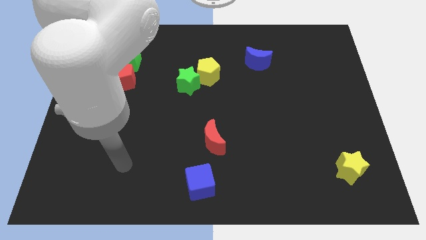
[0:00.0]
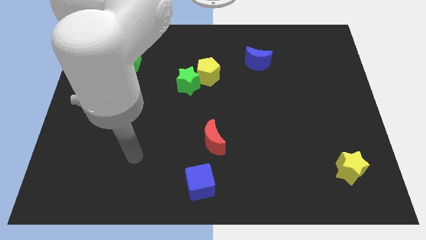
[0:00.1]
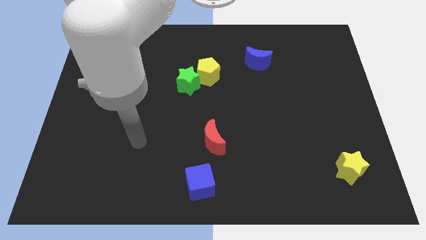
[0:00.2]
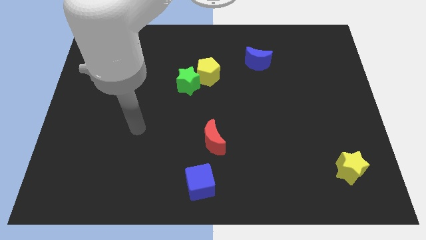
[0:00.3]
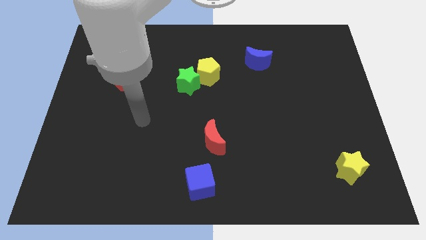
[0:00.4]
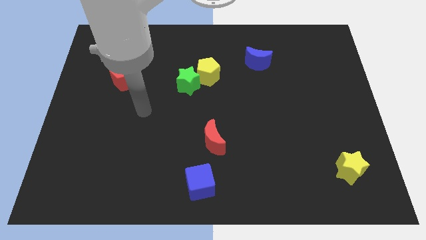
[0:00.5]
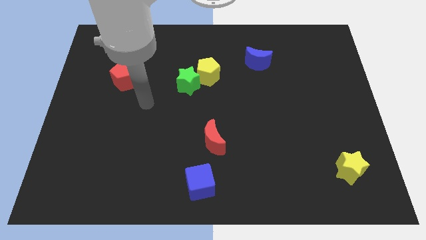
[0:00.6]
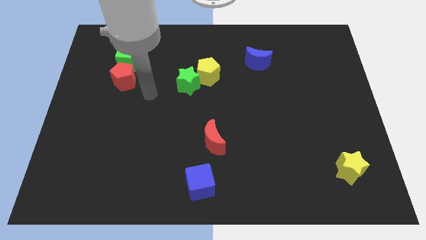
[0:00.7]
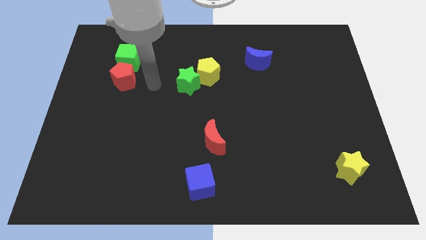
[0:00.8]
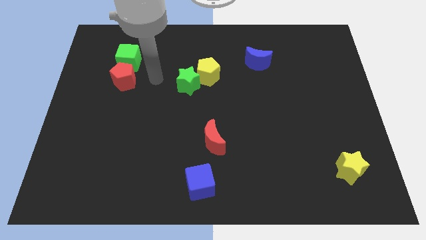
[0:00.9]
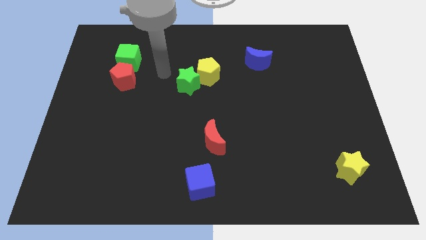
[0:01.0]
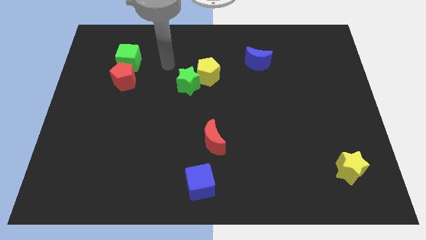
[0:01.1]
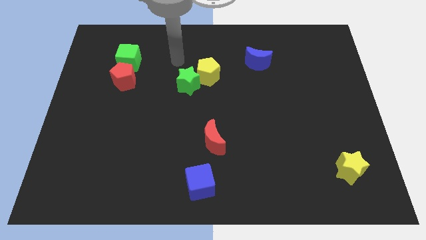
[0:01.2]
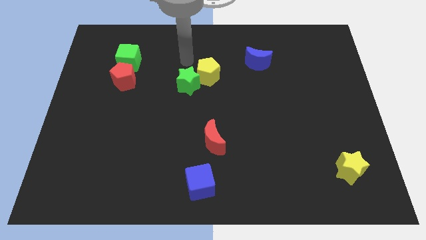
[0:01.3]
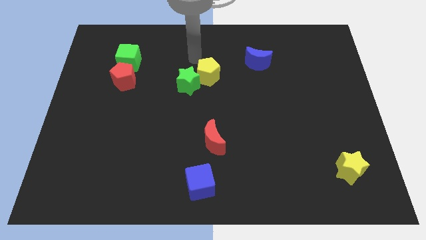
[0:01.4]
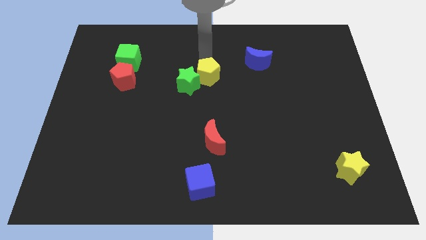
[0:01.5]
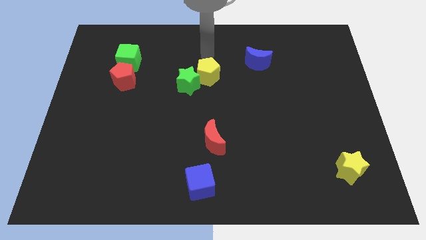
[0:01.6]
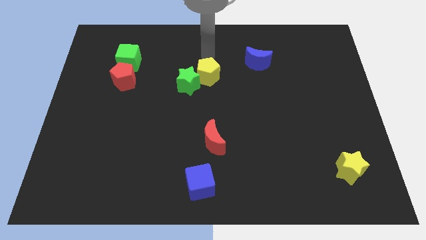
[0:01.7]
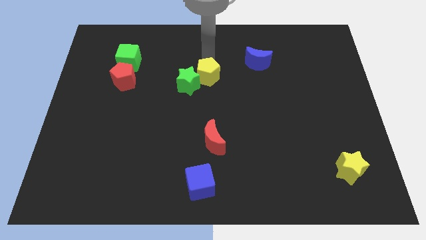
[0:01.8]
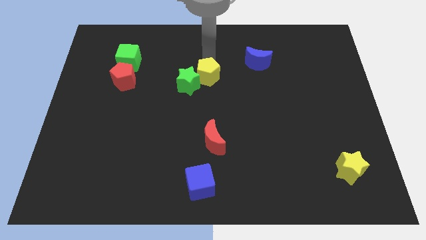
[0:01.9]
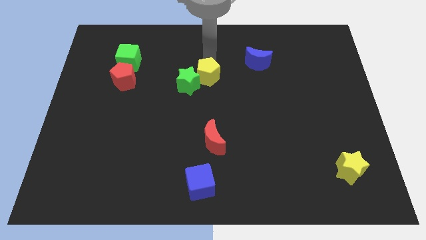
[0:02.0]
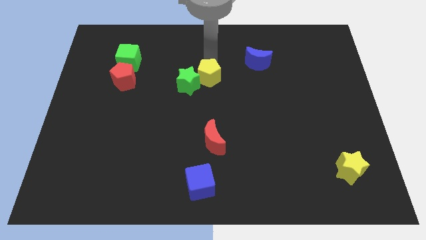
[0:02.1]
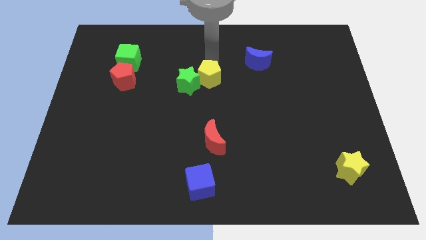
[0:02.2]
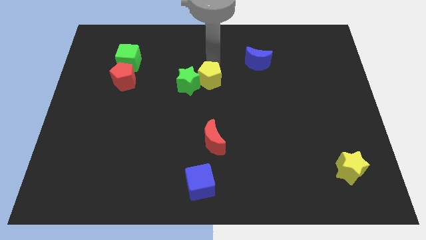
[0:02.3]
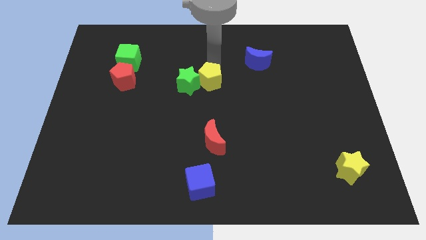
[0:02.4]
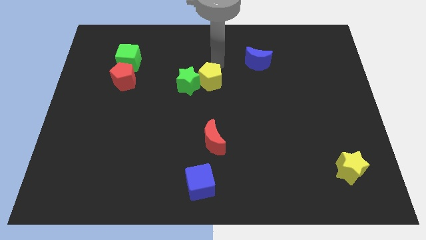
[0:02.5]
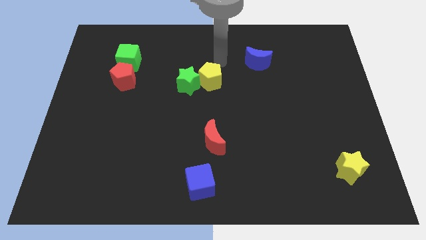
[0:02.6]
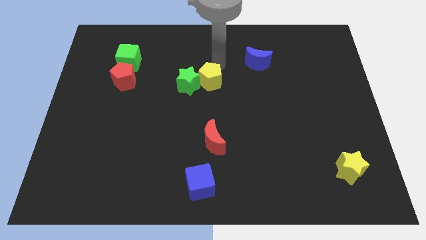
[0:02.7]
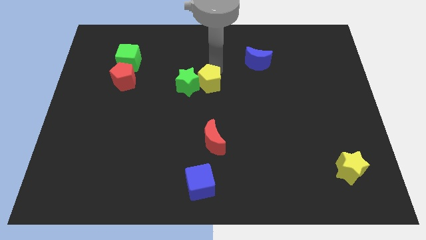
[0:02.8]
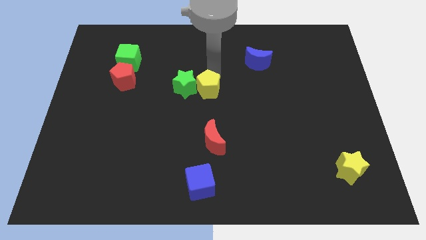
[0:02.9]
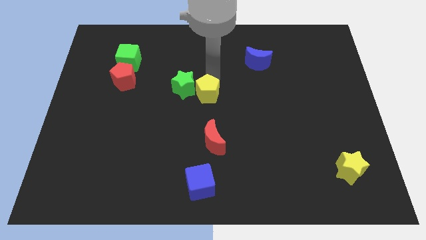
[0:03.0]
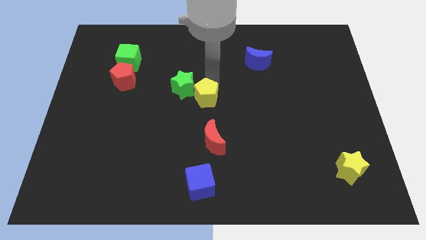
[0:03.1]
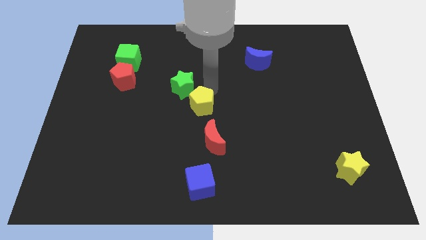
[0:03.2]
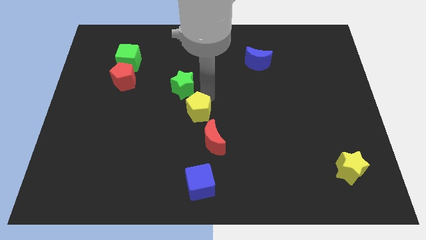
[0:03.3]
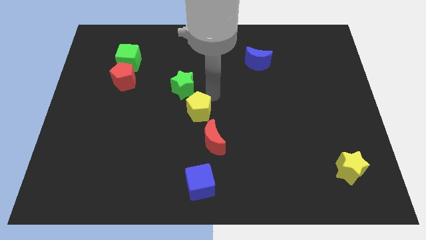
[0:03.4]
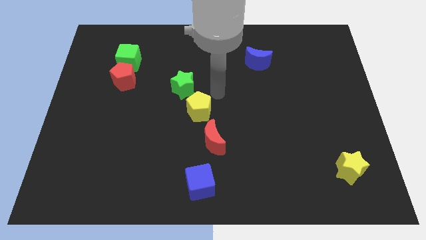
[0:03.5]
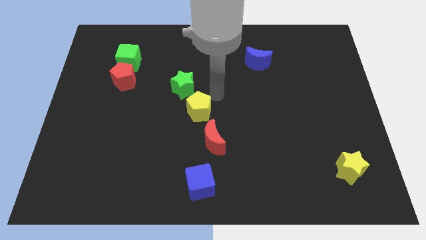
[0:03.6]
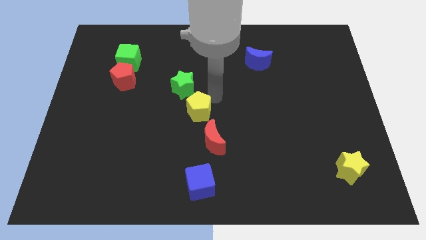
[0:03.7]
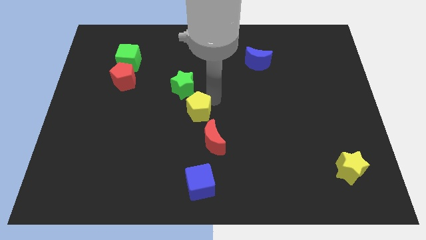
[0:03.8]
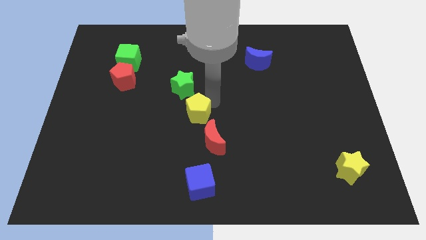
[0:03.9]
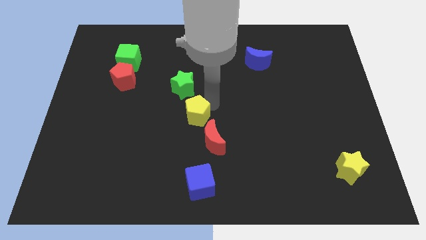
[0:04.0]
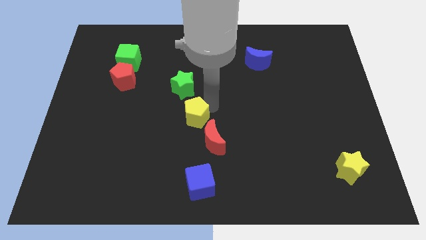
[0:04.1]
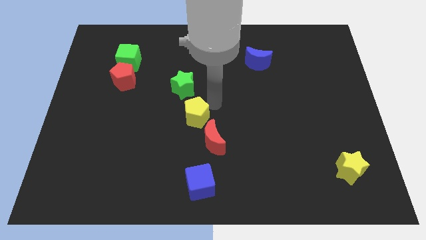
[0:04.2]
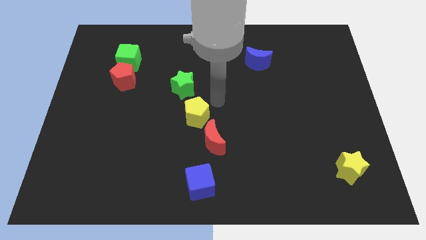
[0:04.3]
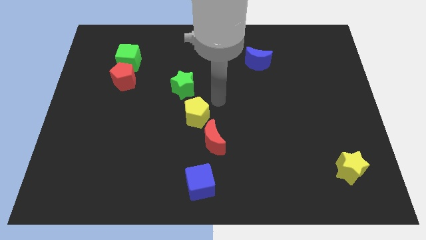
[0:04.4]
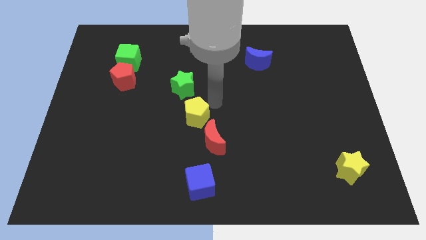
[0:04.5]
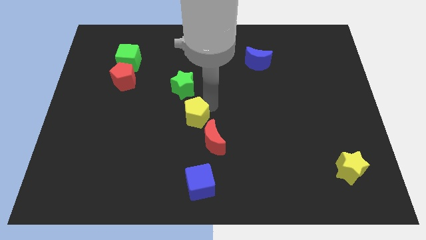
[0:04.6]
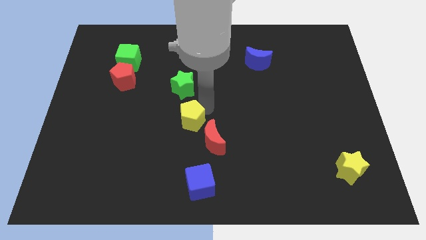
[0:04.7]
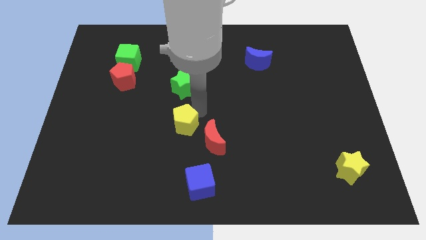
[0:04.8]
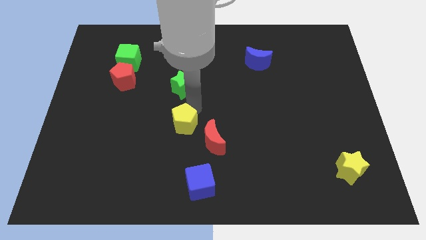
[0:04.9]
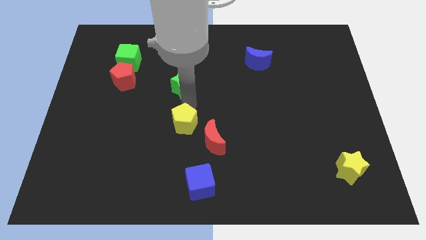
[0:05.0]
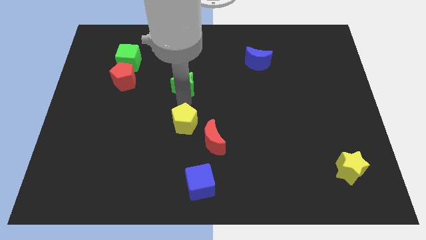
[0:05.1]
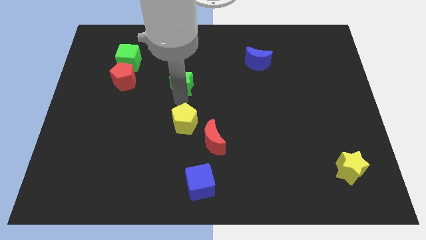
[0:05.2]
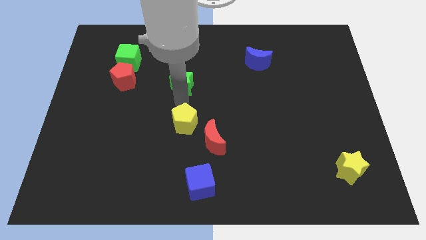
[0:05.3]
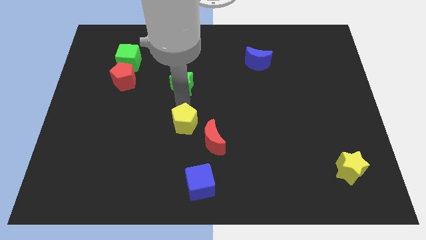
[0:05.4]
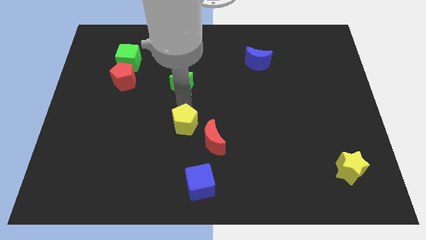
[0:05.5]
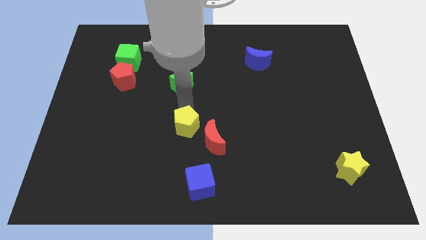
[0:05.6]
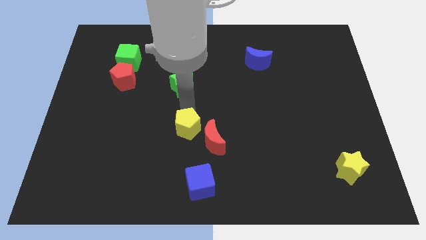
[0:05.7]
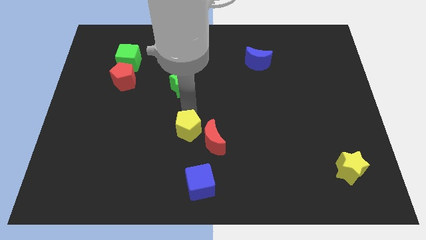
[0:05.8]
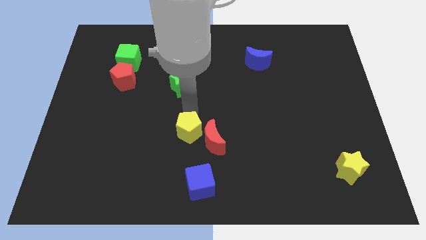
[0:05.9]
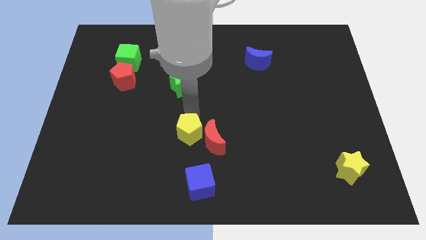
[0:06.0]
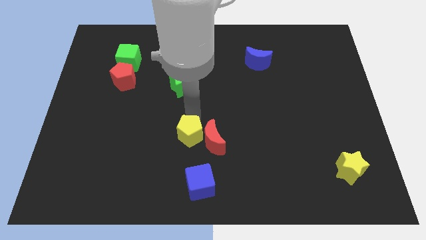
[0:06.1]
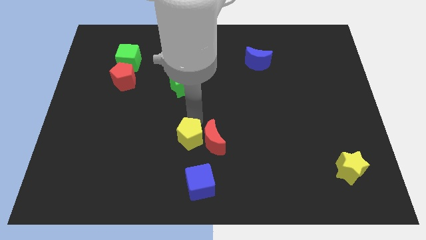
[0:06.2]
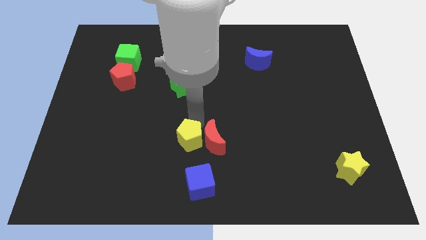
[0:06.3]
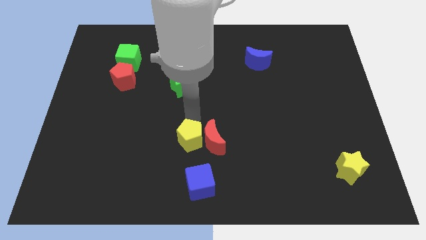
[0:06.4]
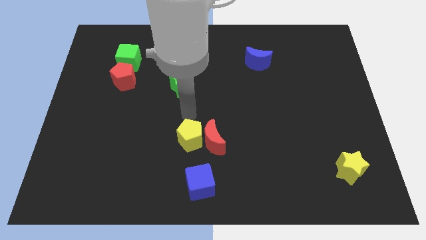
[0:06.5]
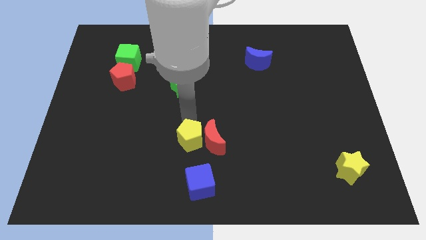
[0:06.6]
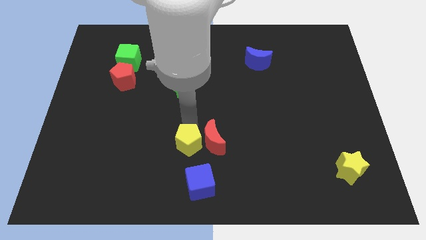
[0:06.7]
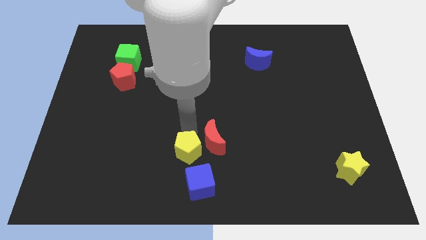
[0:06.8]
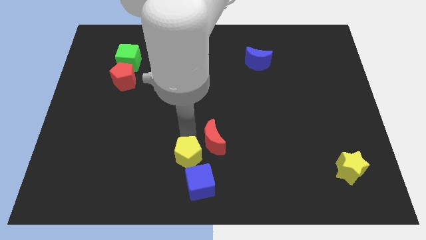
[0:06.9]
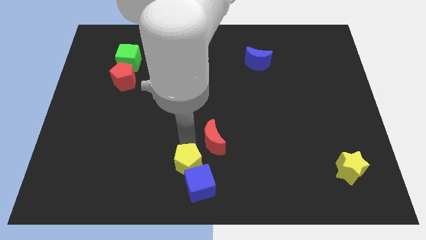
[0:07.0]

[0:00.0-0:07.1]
slide the yellow pentagon next to the blue cube
